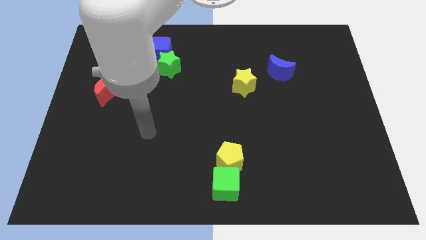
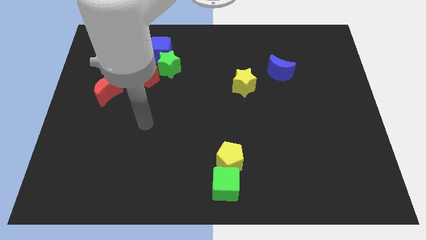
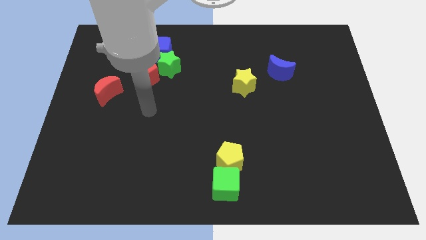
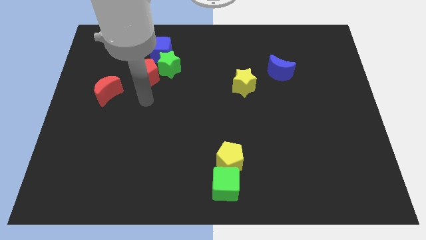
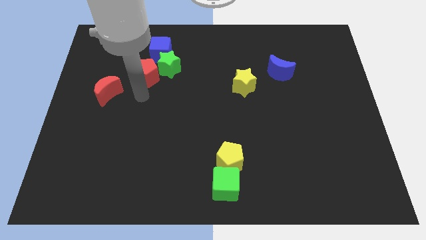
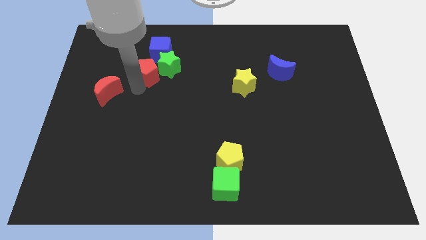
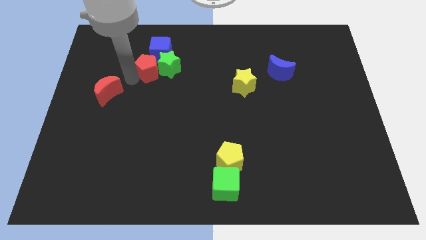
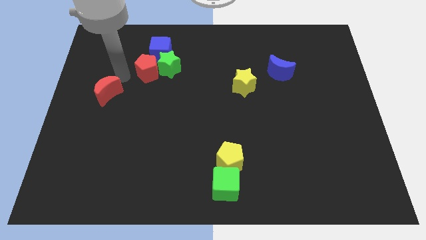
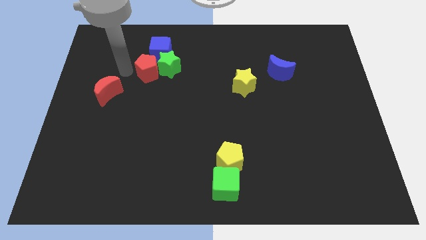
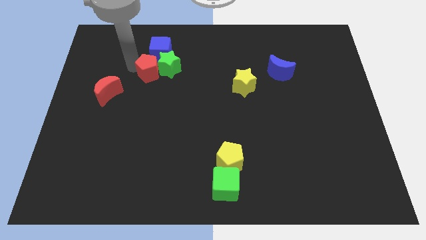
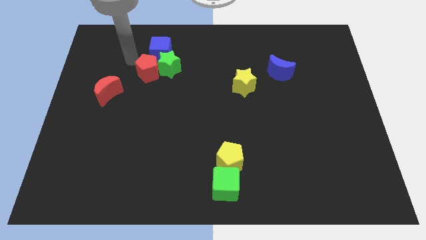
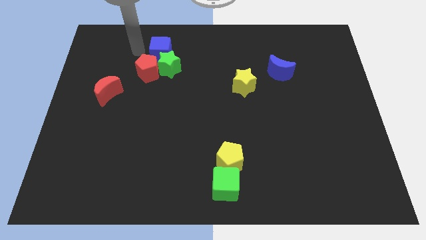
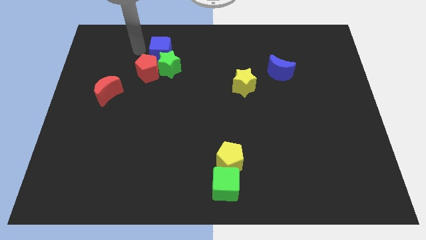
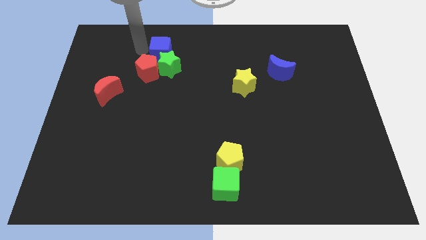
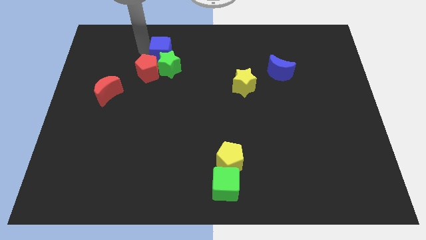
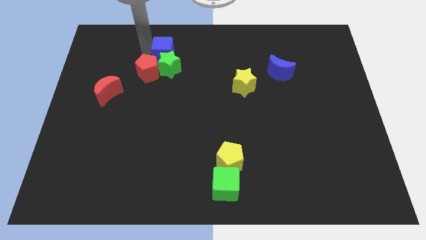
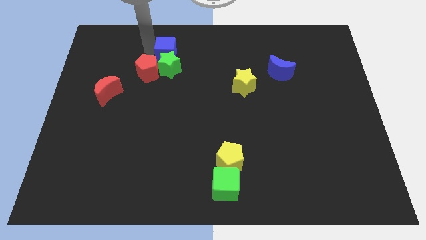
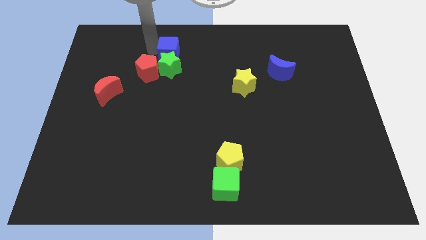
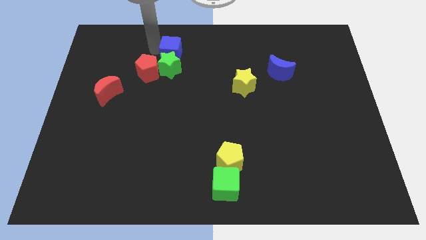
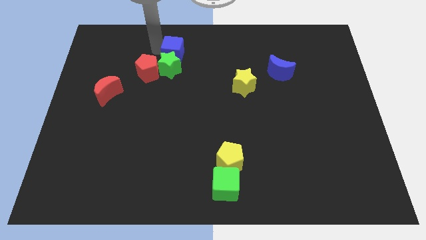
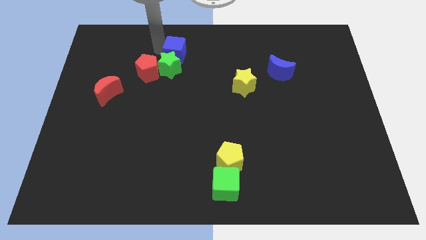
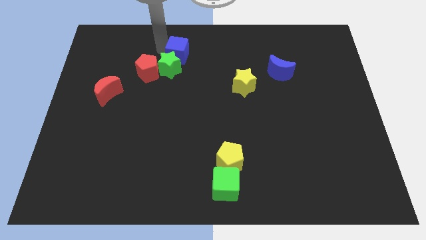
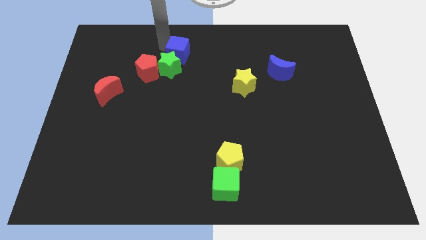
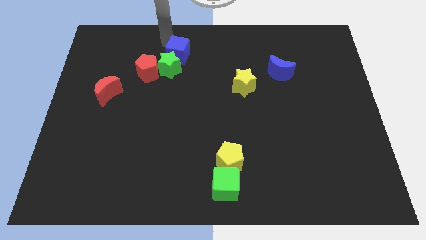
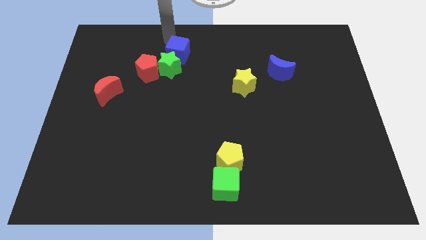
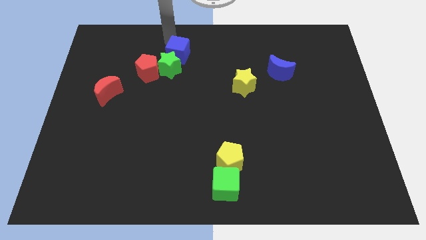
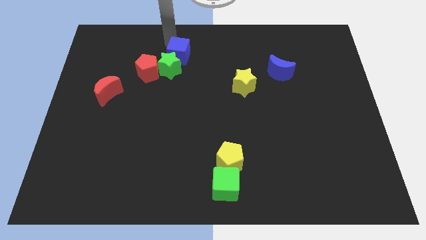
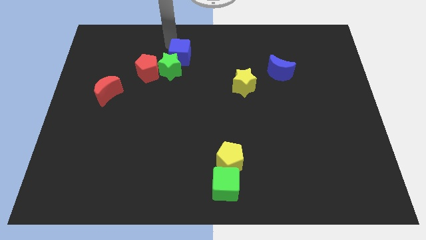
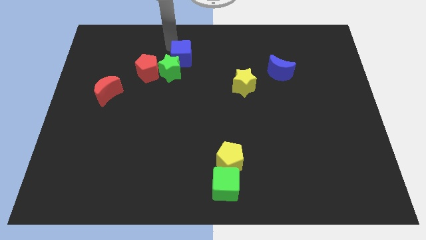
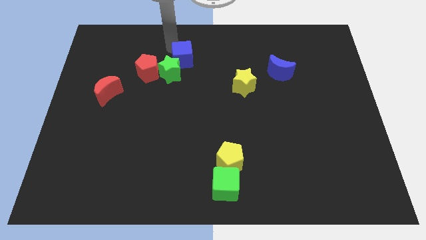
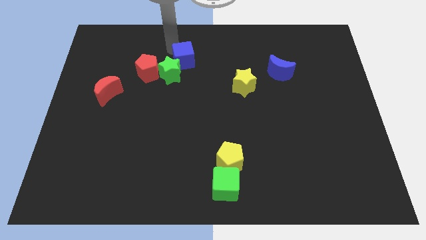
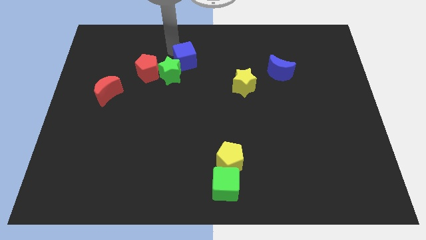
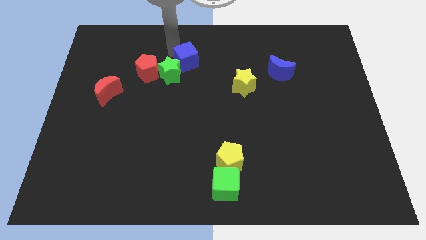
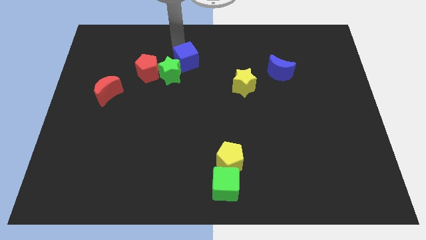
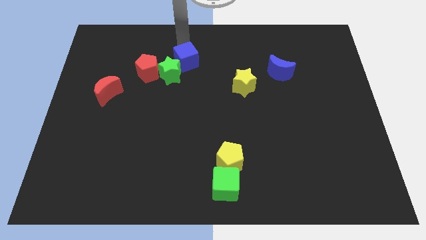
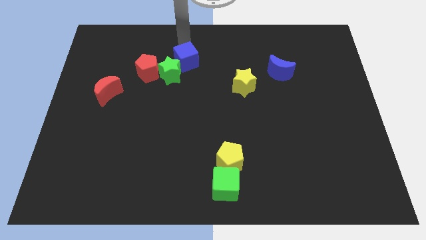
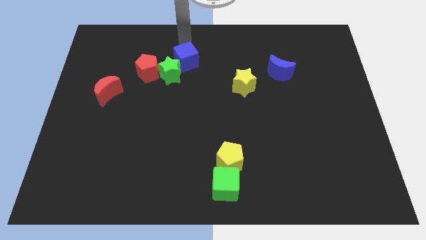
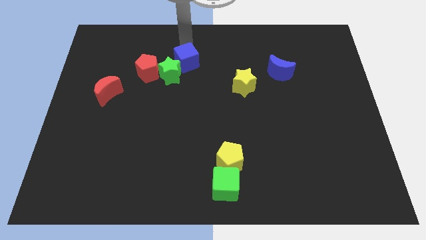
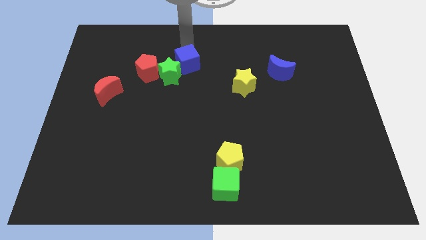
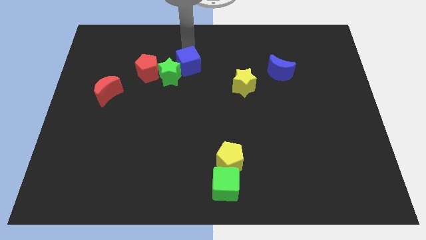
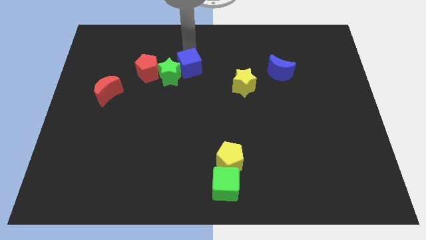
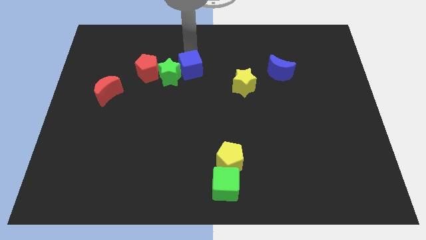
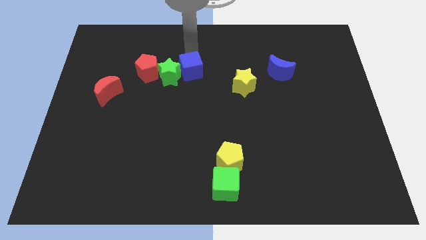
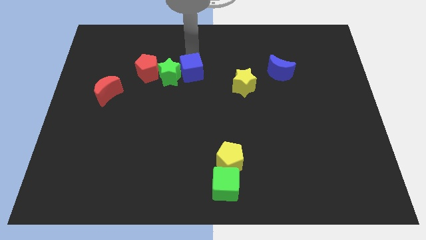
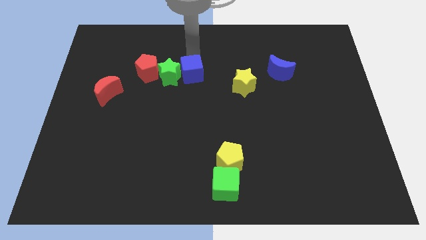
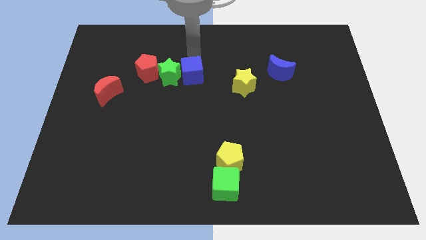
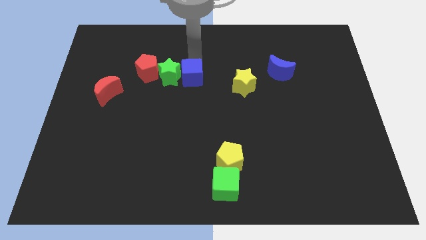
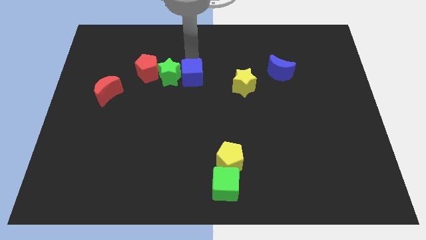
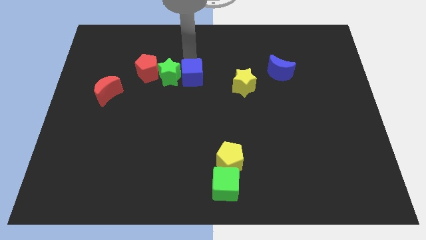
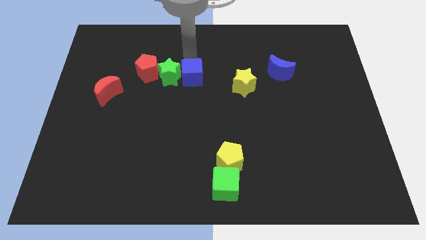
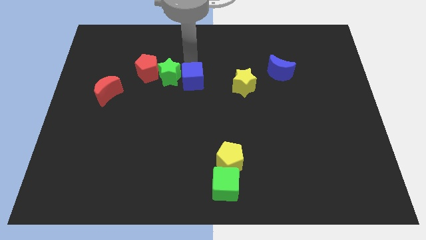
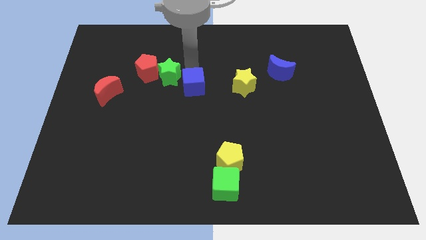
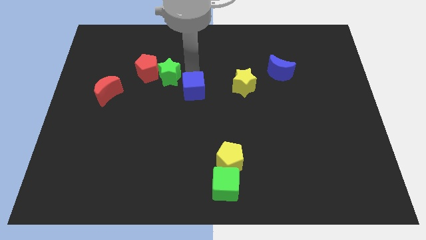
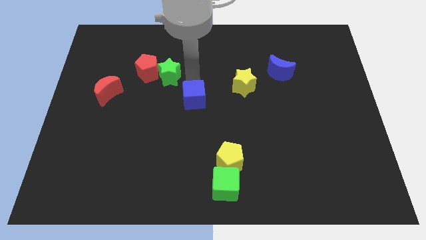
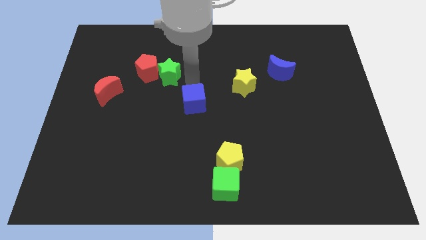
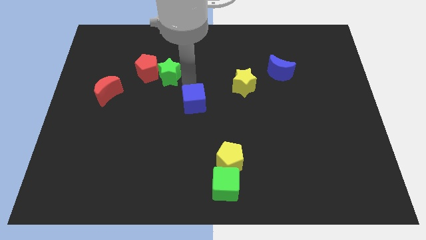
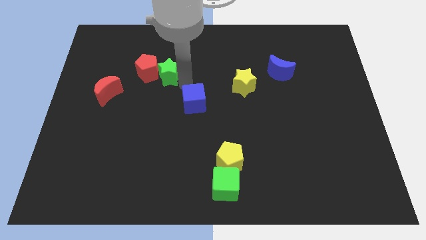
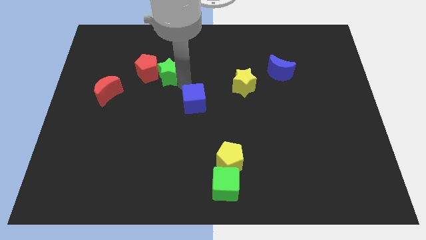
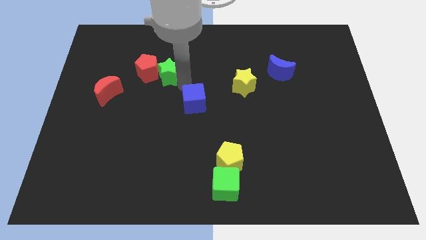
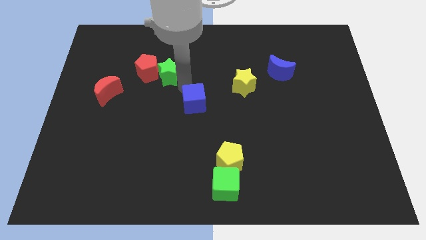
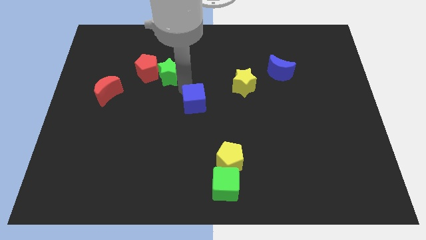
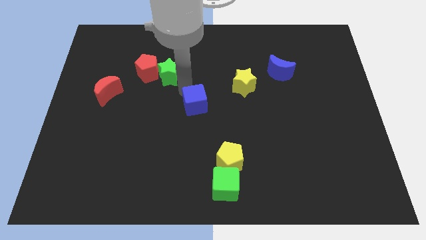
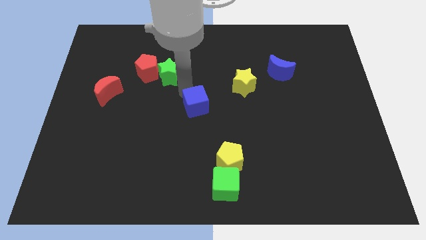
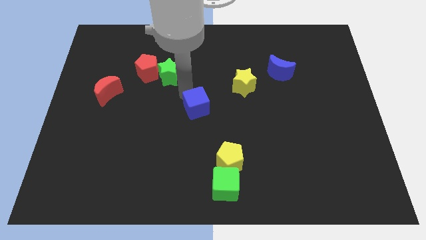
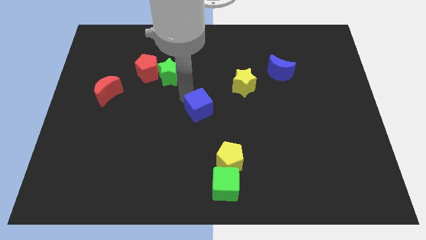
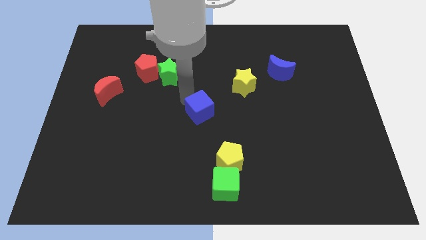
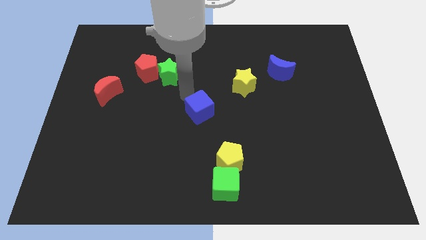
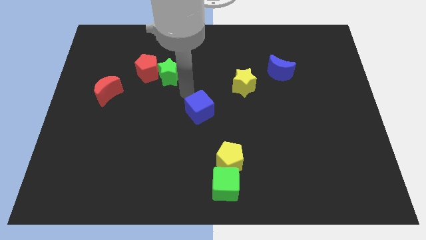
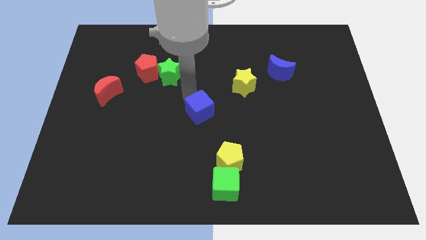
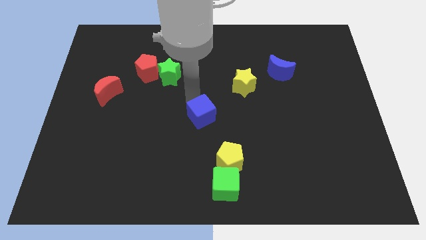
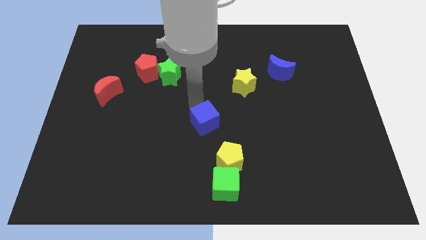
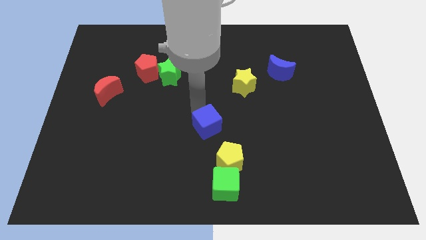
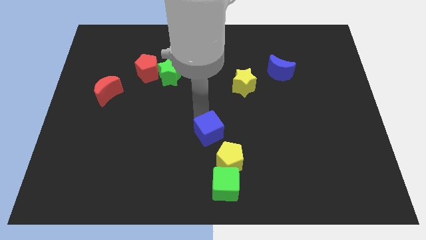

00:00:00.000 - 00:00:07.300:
slide the blue cube to the top side of the green cube
